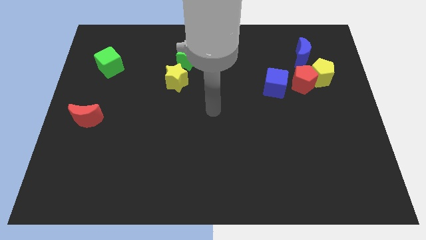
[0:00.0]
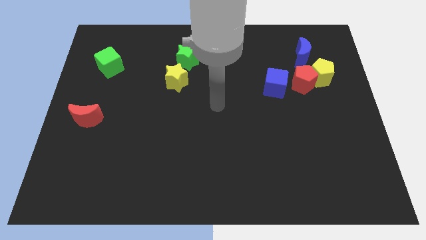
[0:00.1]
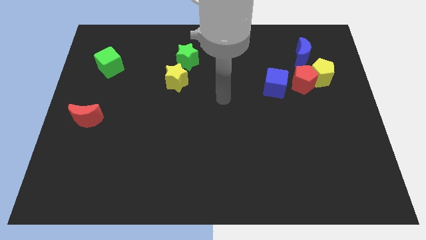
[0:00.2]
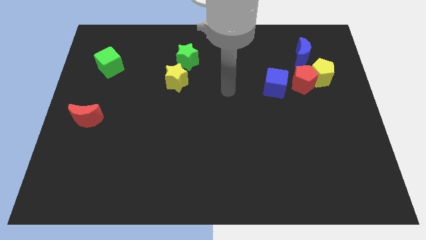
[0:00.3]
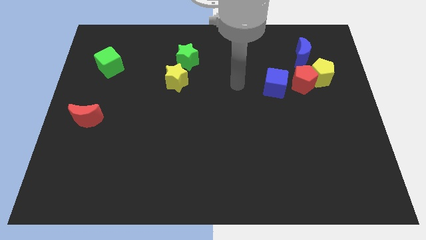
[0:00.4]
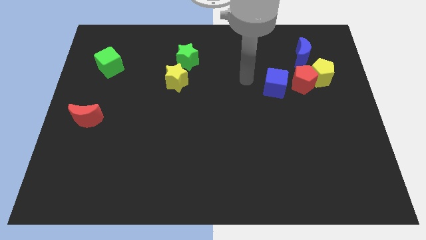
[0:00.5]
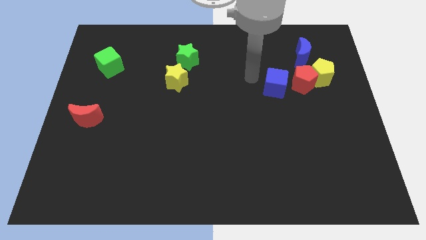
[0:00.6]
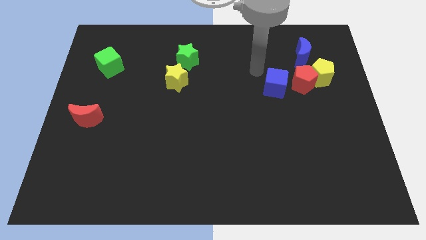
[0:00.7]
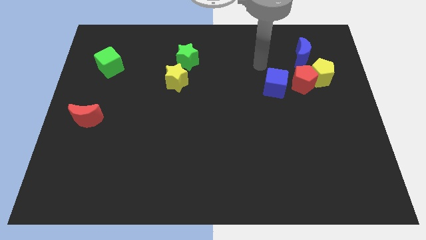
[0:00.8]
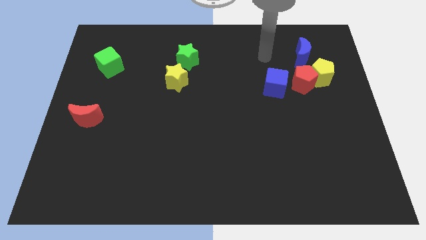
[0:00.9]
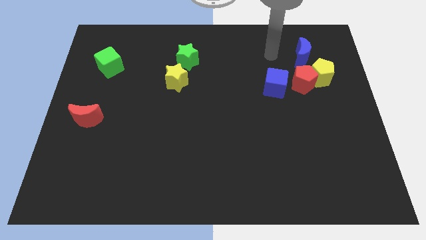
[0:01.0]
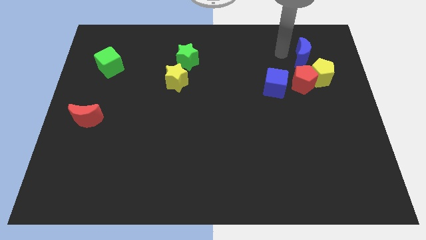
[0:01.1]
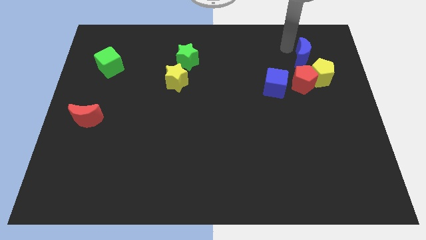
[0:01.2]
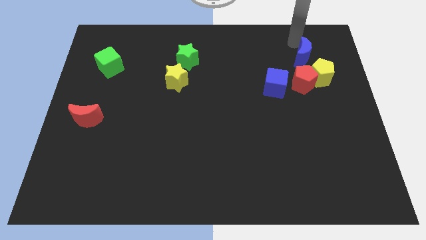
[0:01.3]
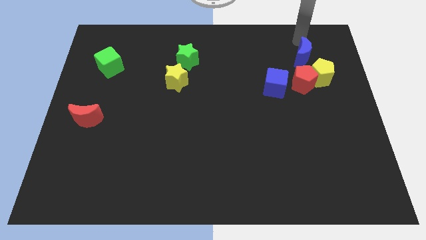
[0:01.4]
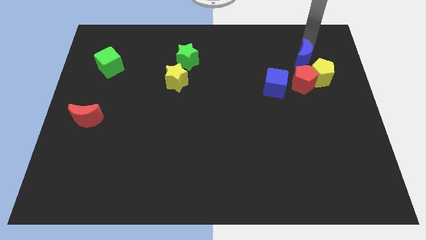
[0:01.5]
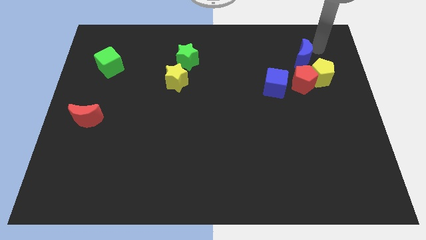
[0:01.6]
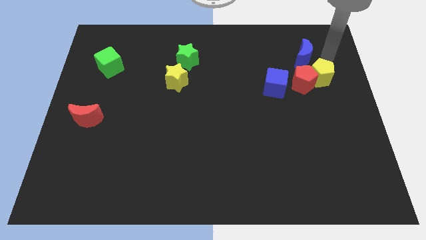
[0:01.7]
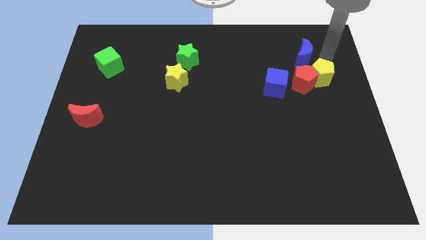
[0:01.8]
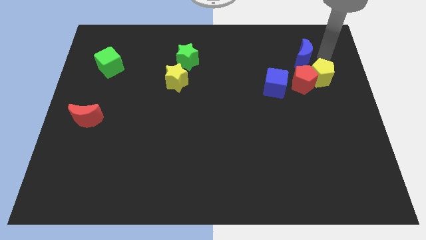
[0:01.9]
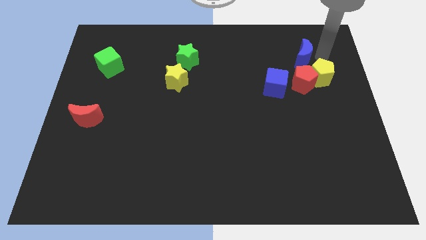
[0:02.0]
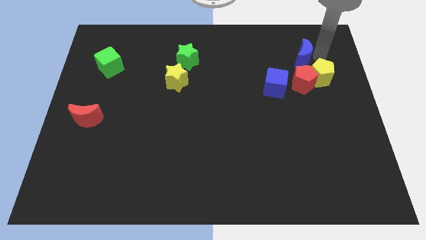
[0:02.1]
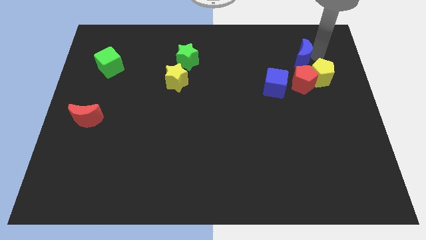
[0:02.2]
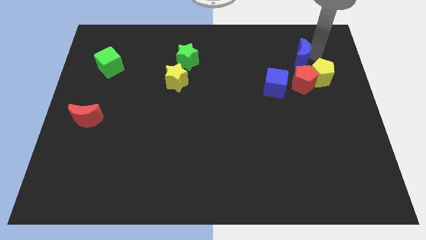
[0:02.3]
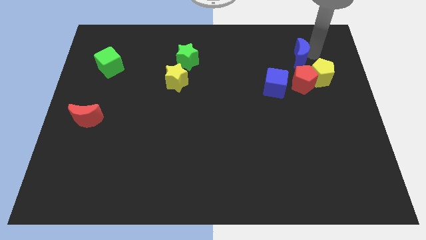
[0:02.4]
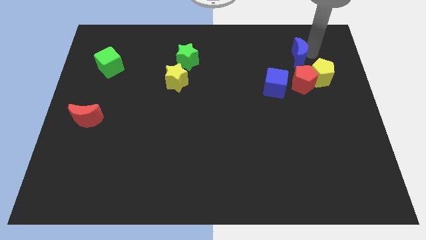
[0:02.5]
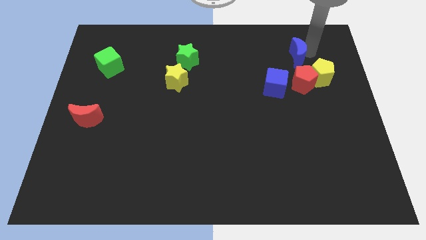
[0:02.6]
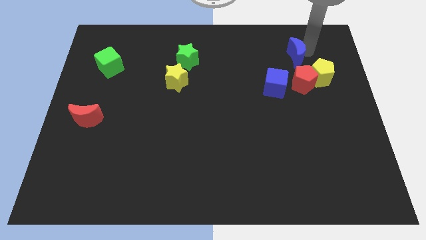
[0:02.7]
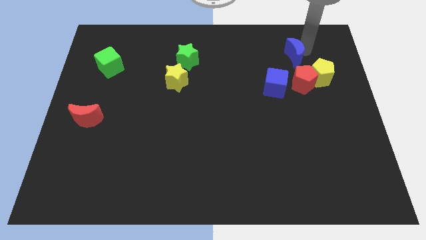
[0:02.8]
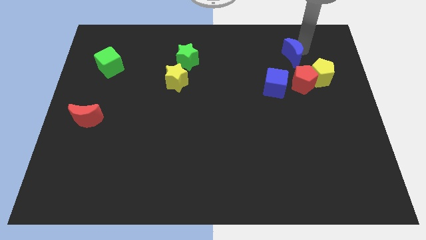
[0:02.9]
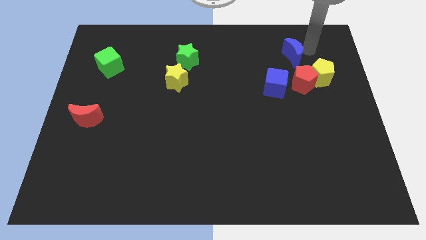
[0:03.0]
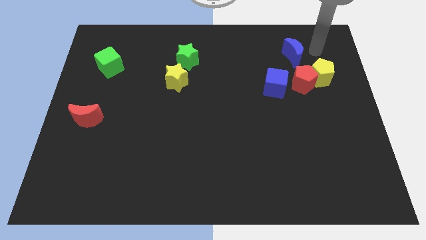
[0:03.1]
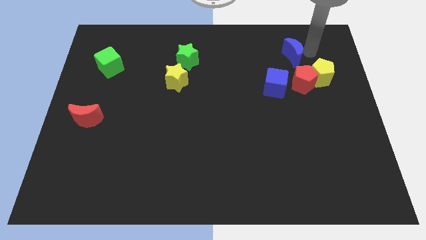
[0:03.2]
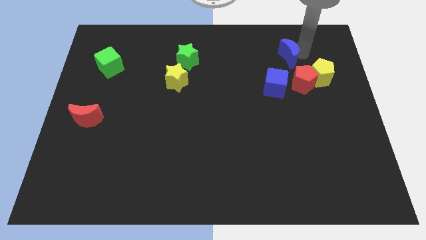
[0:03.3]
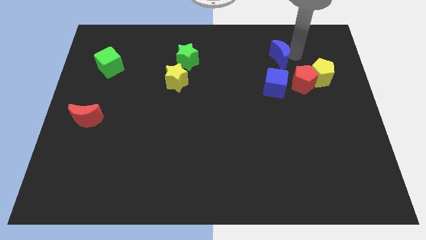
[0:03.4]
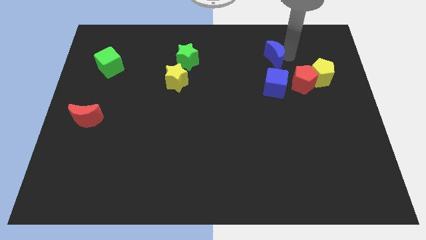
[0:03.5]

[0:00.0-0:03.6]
slightly slide the blue moon left

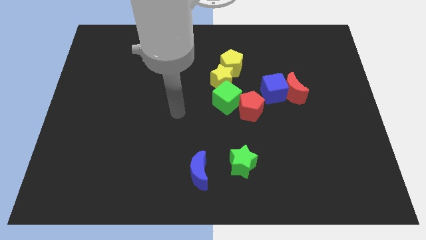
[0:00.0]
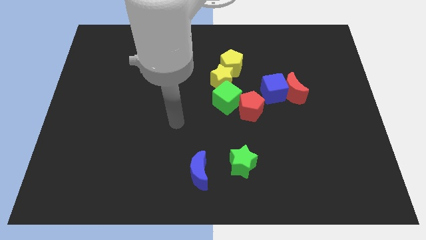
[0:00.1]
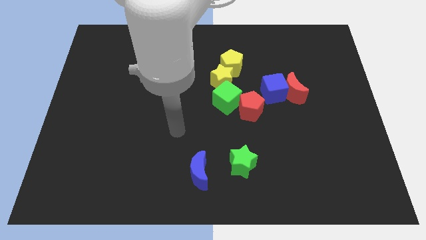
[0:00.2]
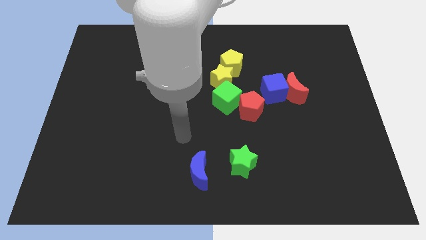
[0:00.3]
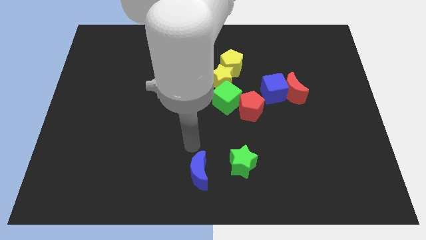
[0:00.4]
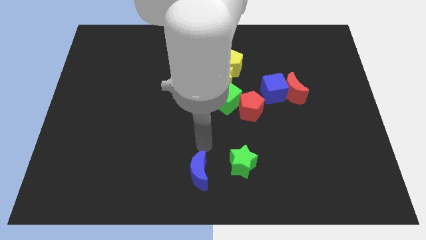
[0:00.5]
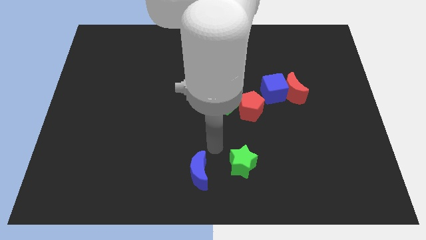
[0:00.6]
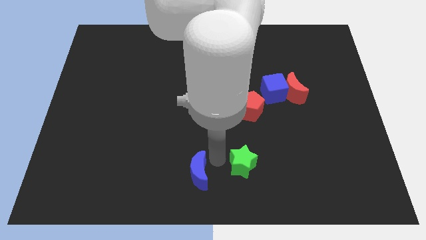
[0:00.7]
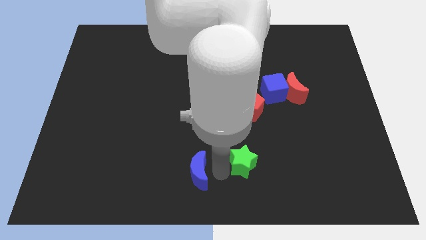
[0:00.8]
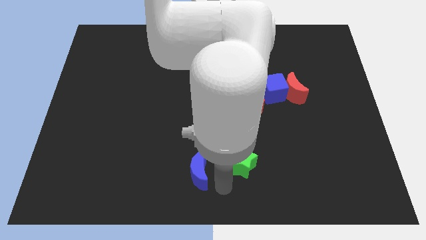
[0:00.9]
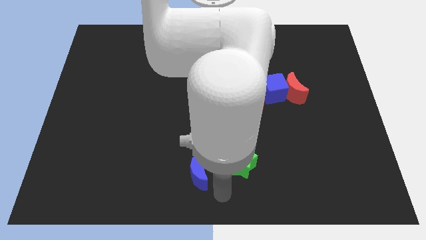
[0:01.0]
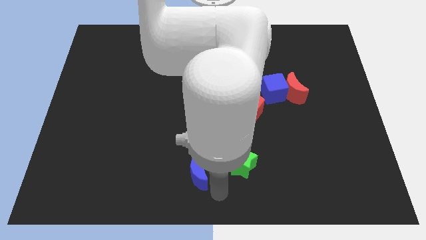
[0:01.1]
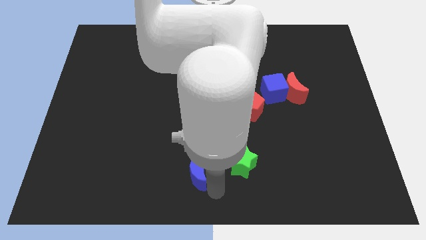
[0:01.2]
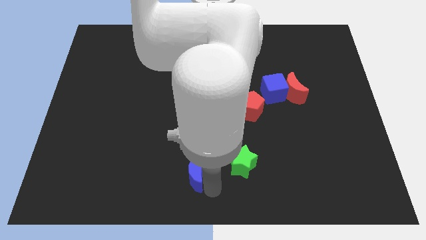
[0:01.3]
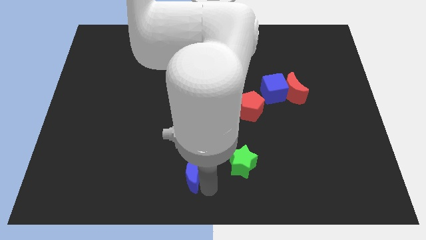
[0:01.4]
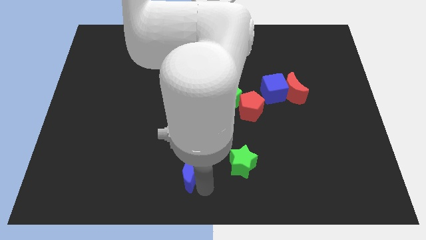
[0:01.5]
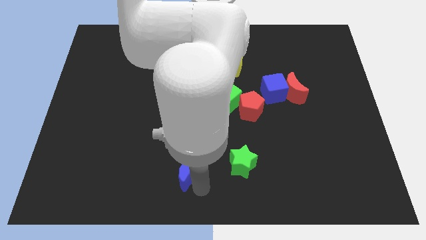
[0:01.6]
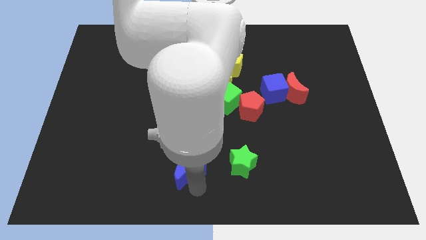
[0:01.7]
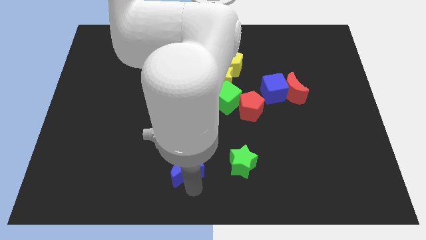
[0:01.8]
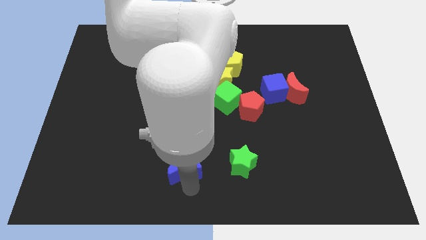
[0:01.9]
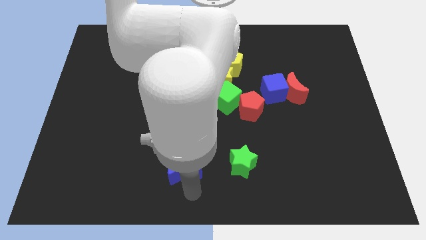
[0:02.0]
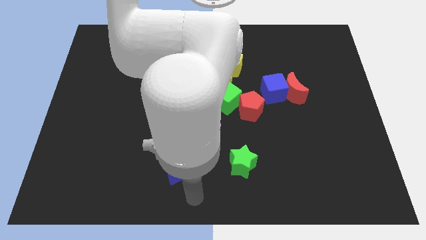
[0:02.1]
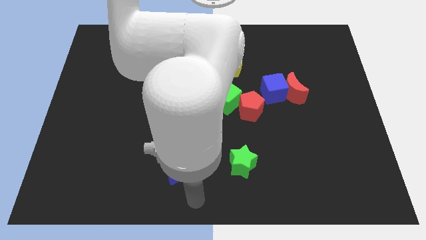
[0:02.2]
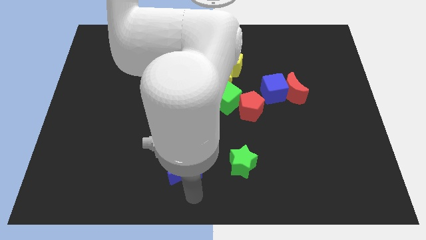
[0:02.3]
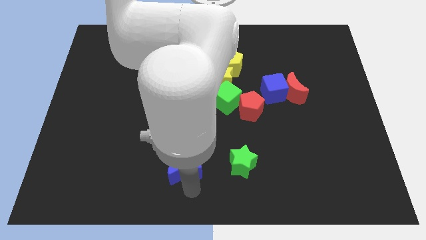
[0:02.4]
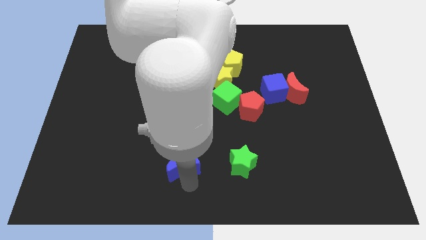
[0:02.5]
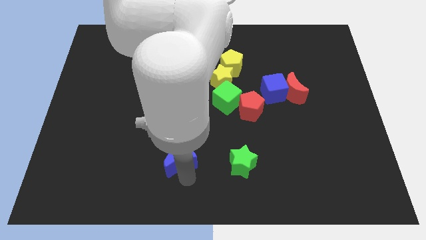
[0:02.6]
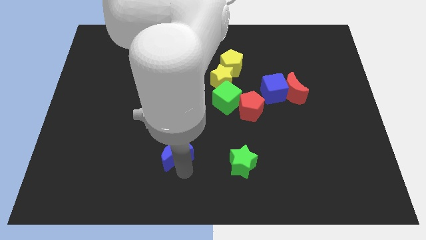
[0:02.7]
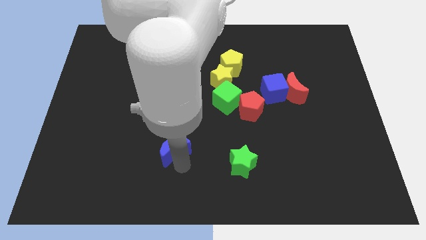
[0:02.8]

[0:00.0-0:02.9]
move the blue moon slightly upwards and left diagonally

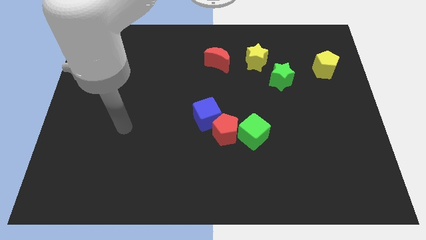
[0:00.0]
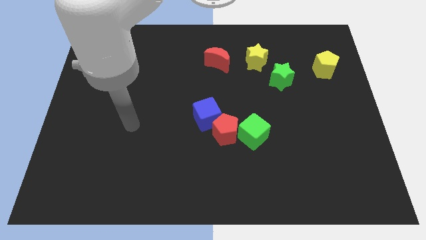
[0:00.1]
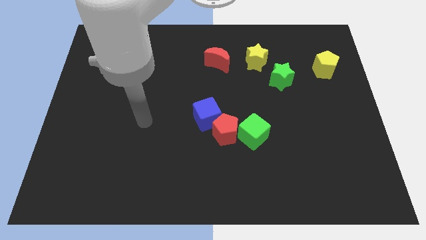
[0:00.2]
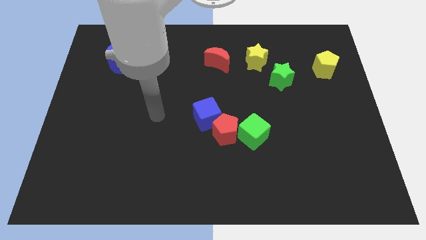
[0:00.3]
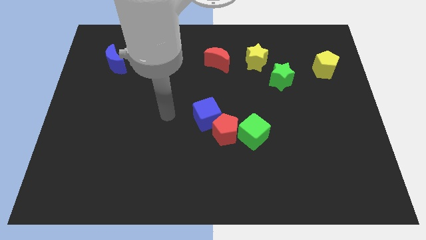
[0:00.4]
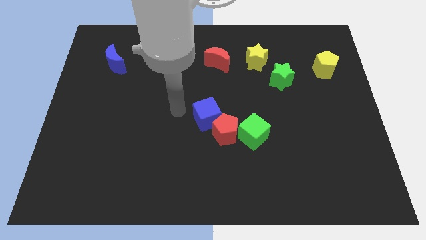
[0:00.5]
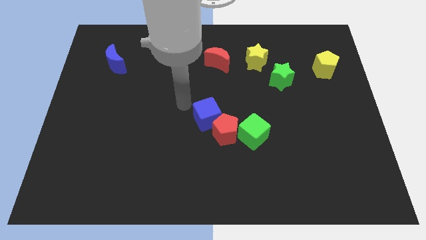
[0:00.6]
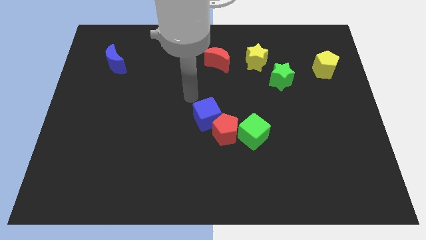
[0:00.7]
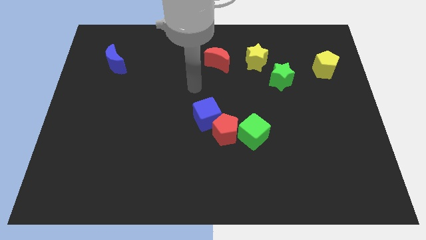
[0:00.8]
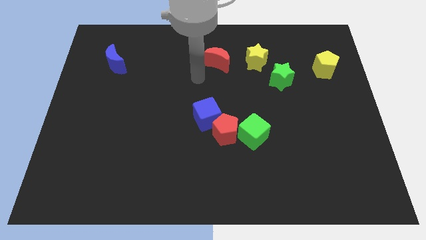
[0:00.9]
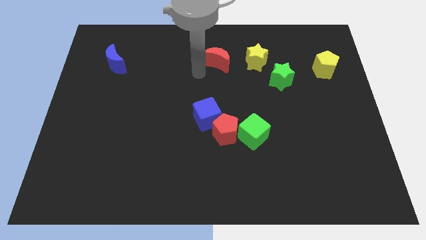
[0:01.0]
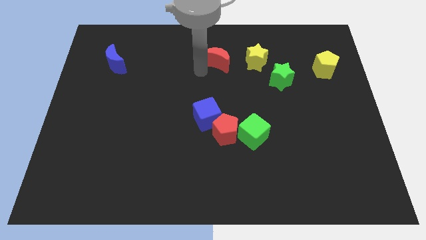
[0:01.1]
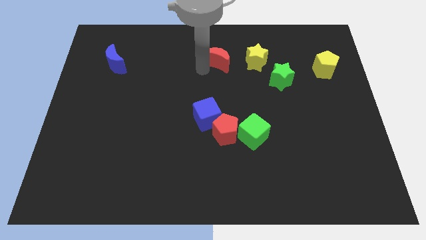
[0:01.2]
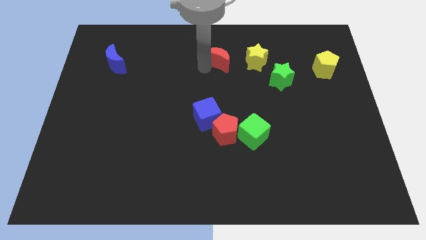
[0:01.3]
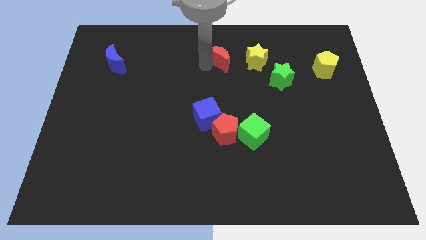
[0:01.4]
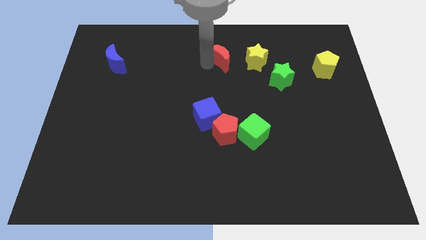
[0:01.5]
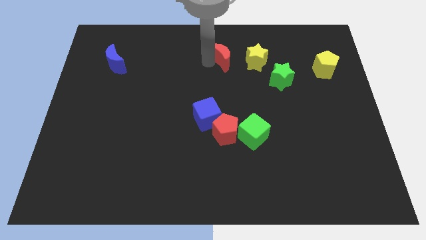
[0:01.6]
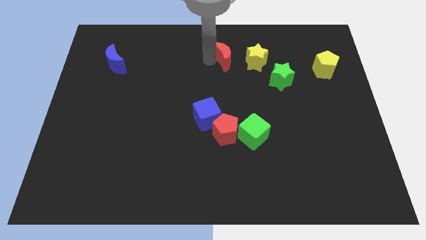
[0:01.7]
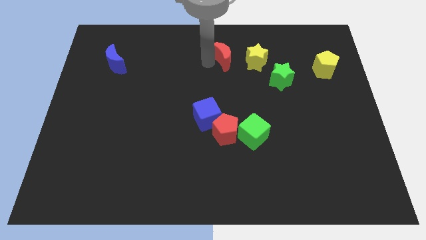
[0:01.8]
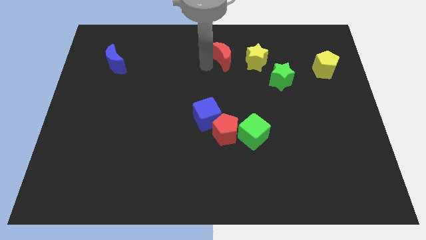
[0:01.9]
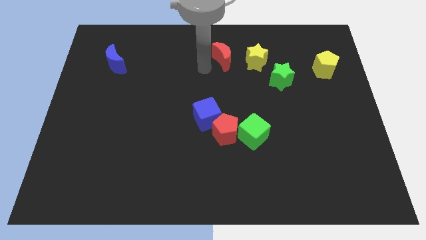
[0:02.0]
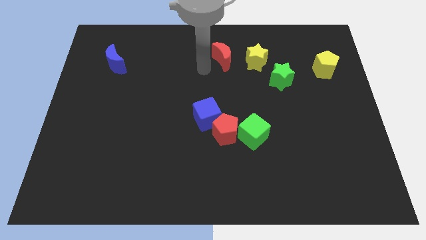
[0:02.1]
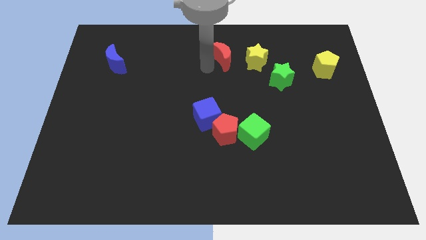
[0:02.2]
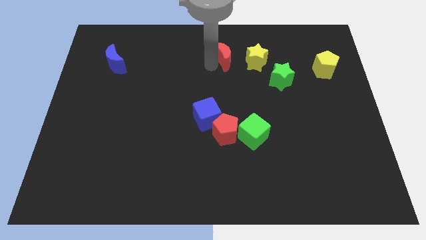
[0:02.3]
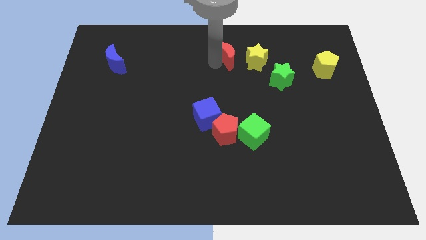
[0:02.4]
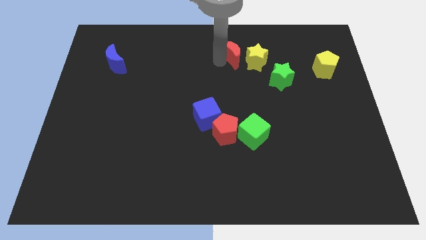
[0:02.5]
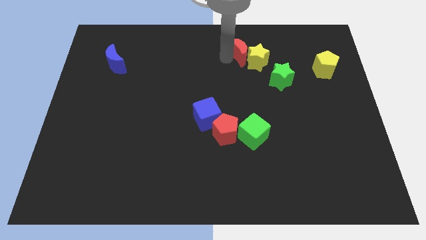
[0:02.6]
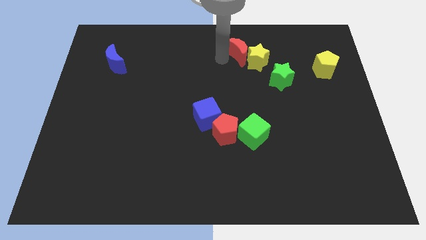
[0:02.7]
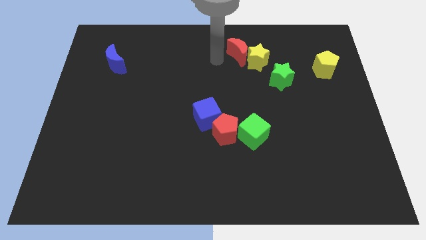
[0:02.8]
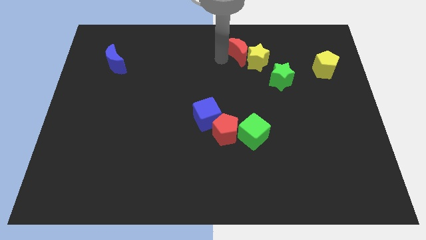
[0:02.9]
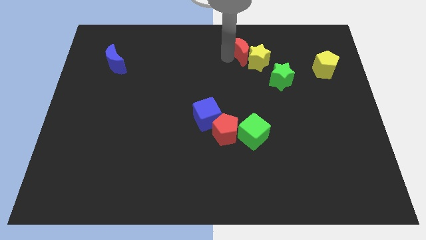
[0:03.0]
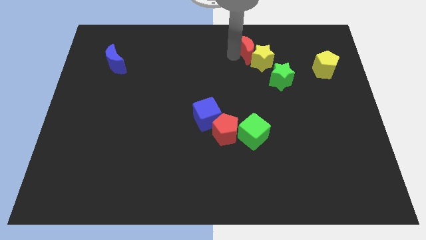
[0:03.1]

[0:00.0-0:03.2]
slightly move the red moon to the right
